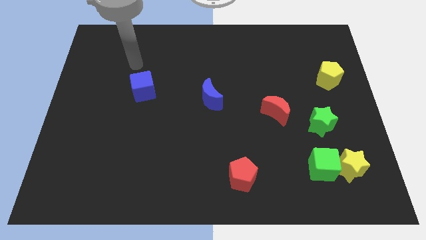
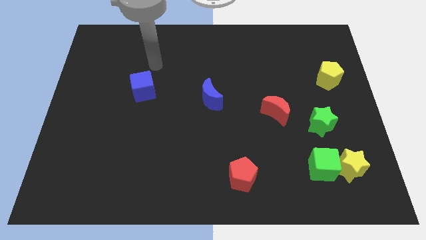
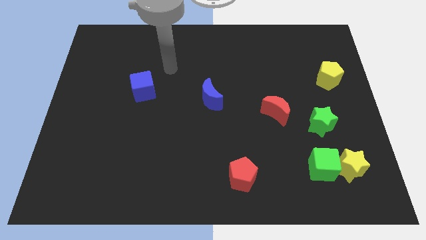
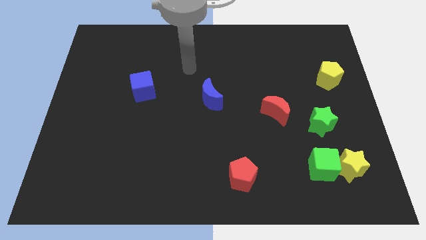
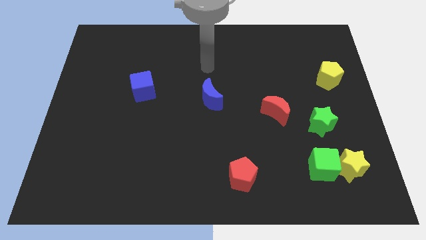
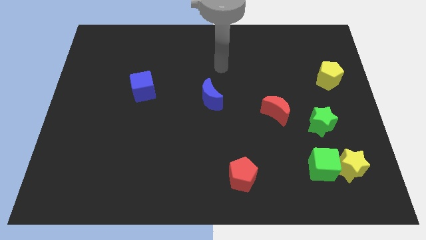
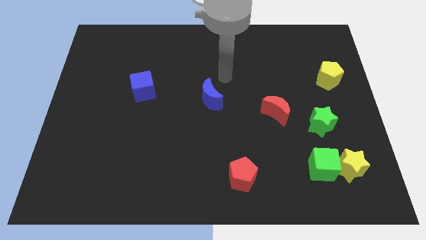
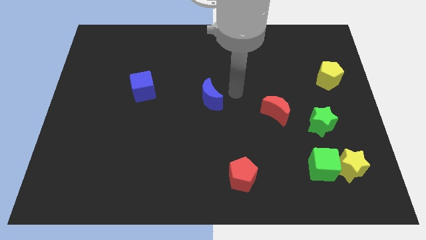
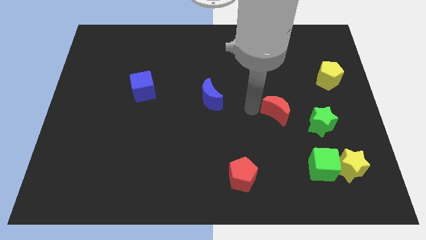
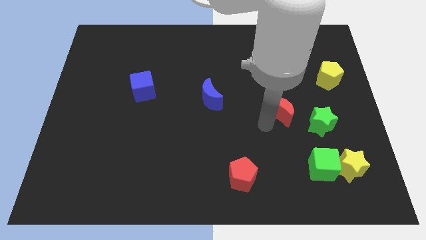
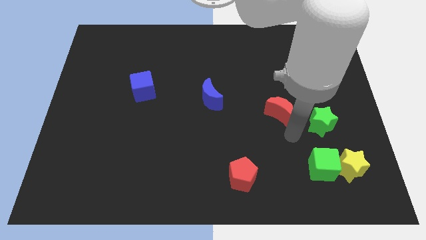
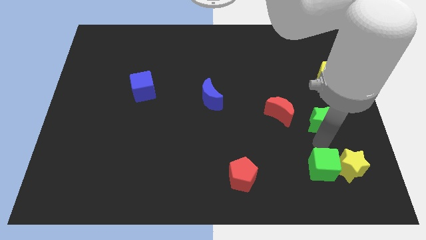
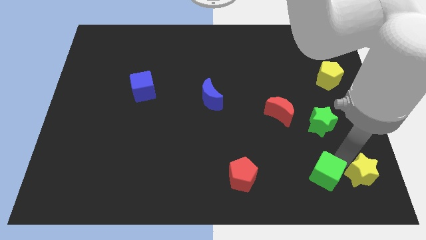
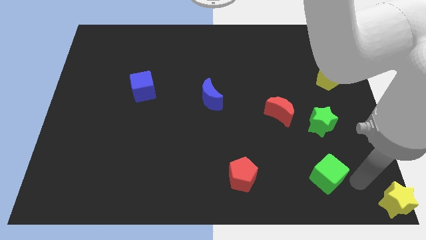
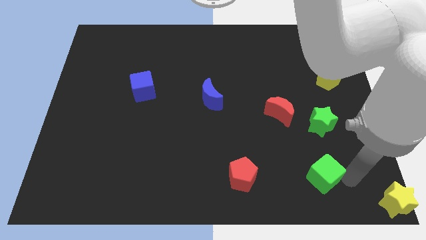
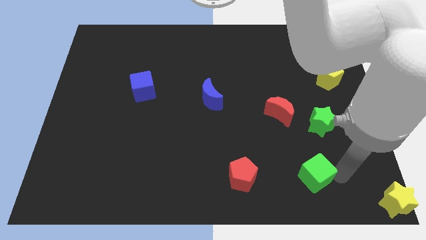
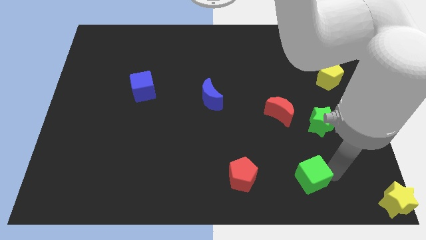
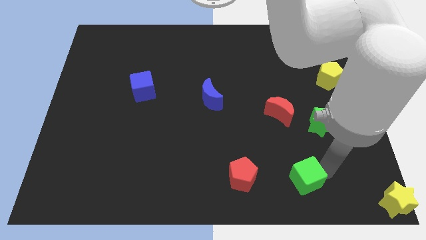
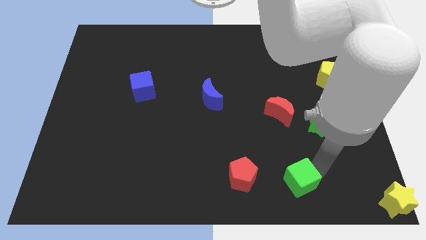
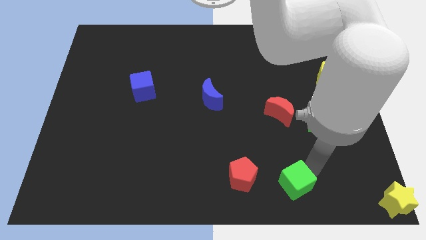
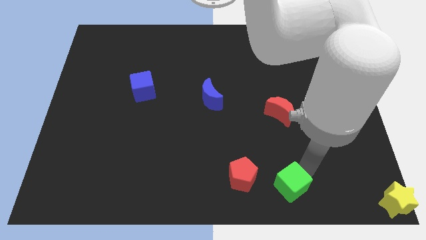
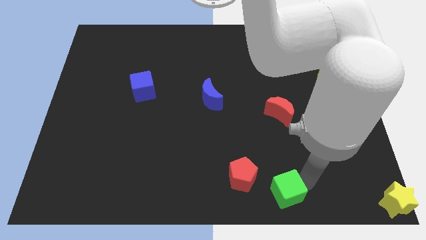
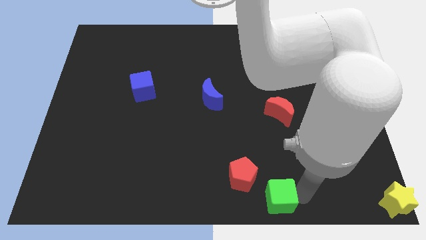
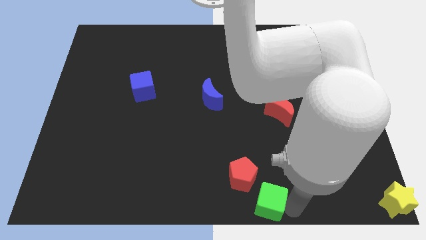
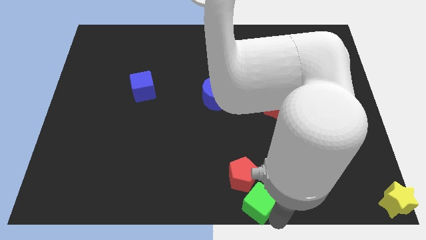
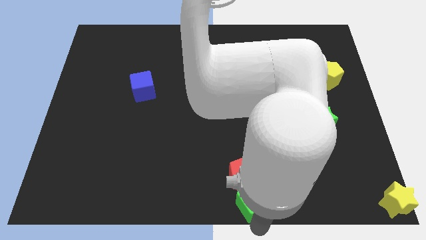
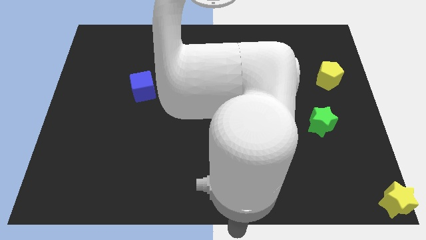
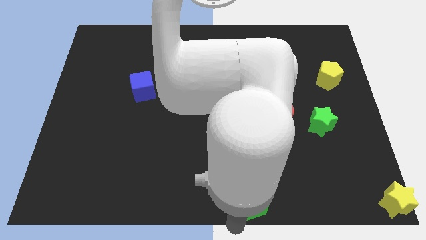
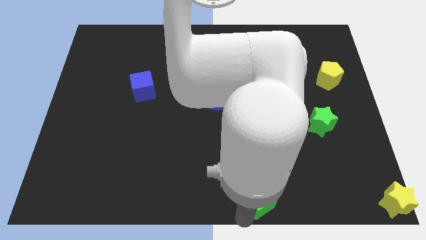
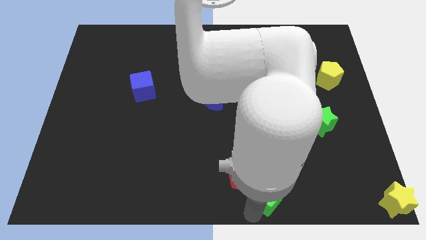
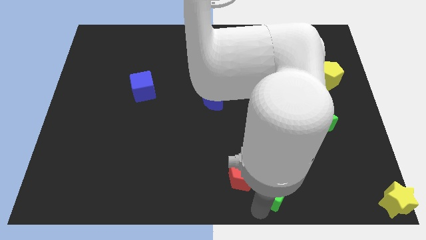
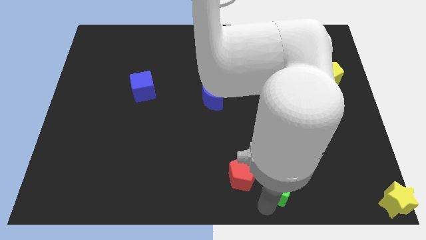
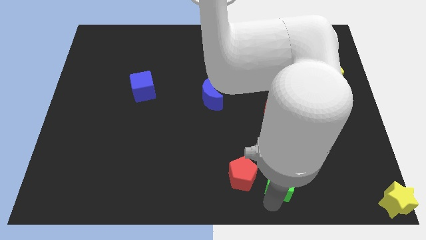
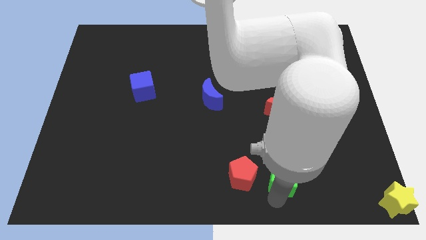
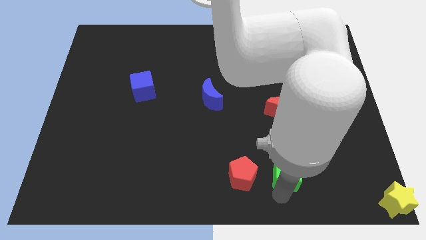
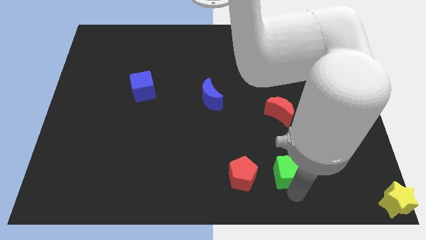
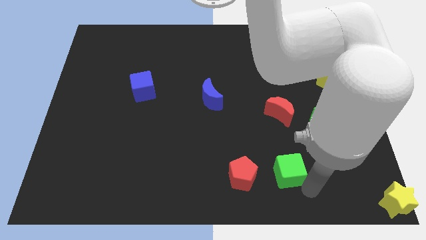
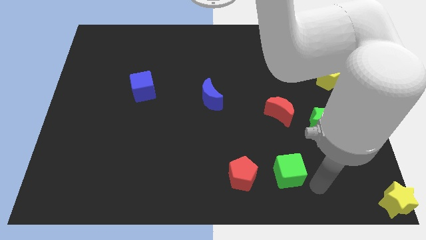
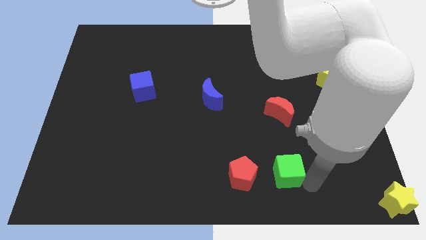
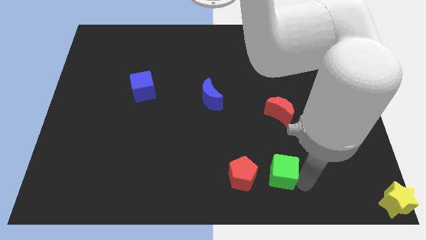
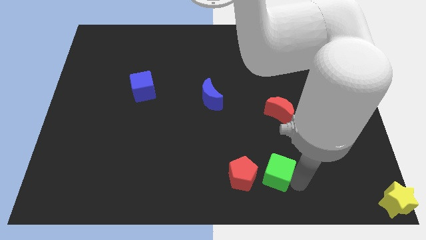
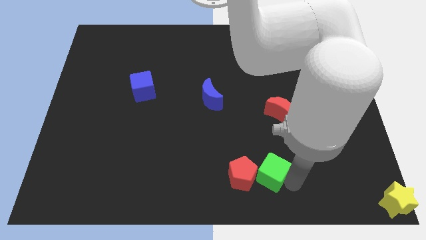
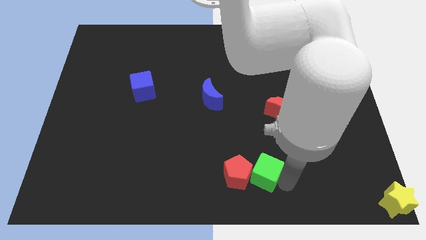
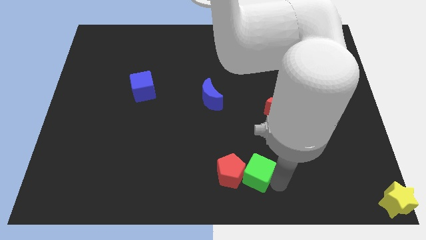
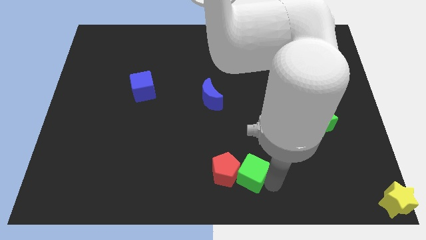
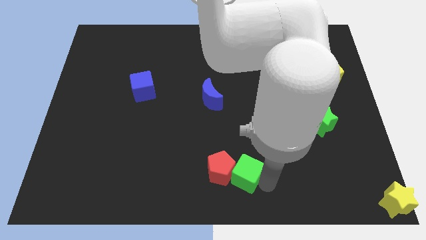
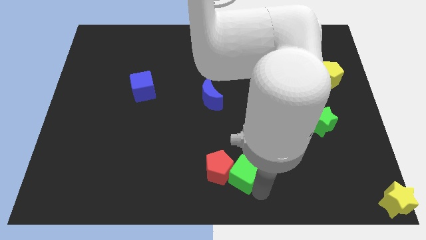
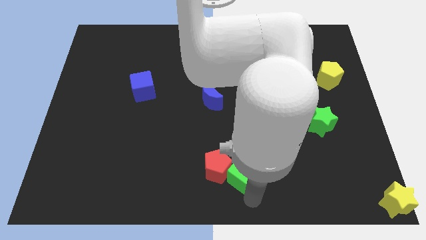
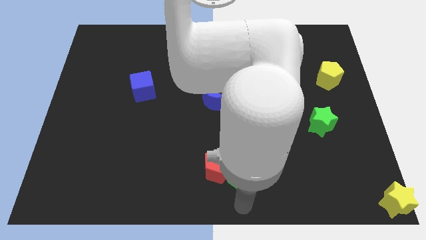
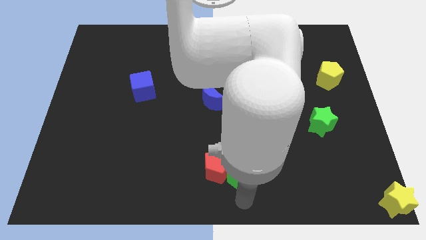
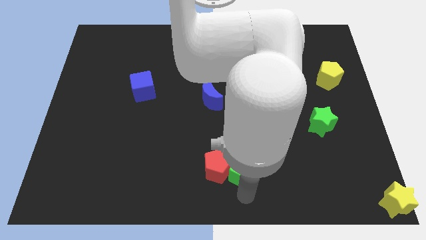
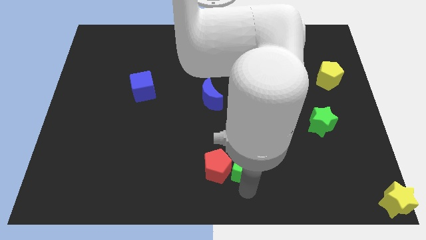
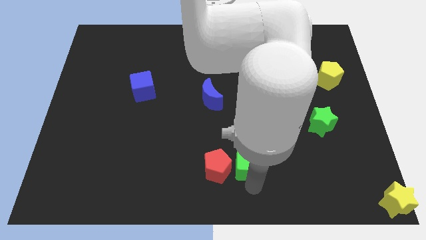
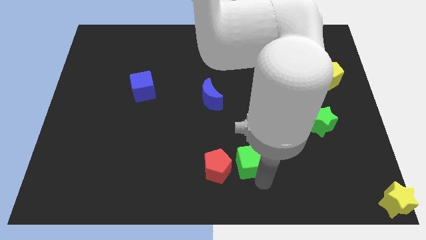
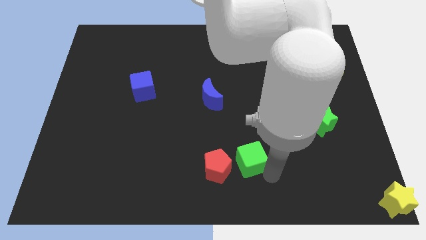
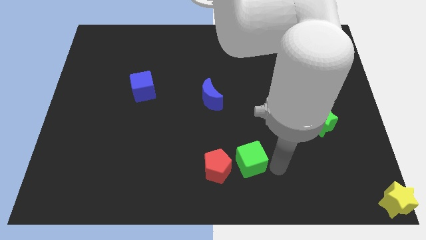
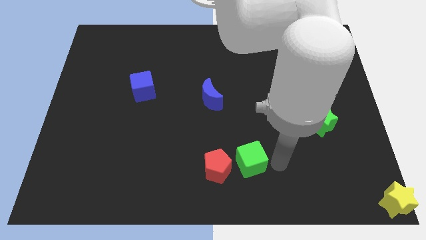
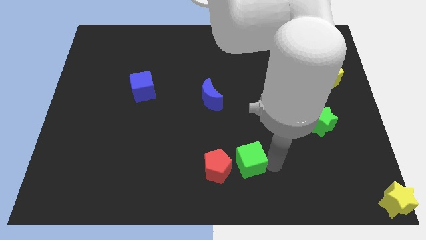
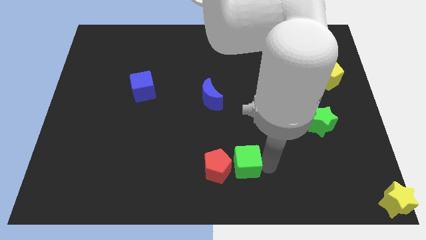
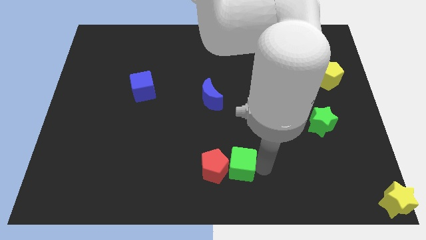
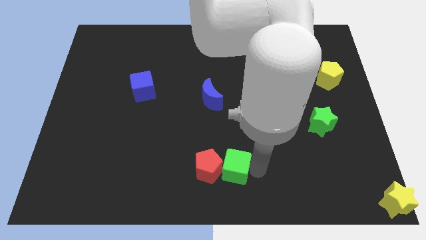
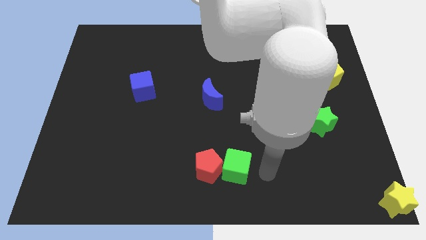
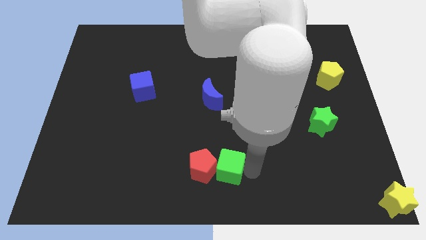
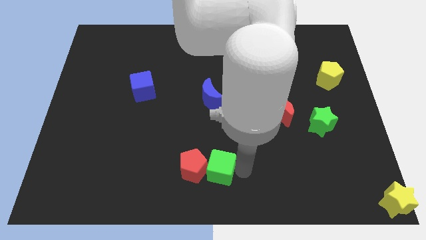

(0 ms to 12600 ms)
push the green cube to the left

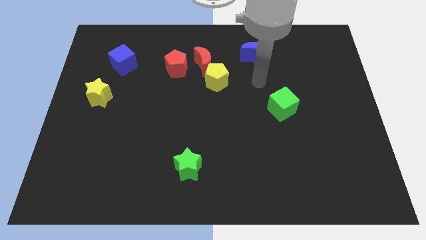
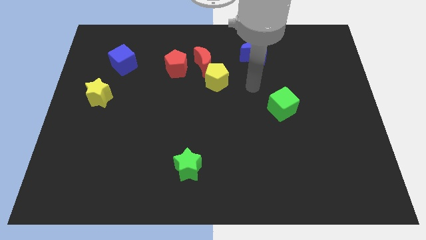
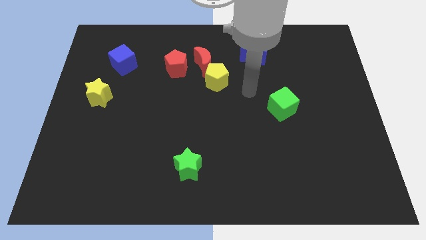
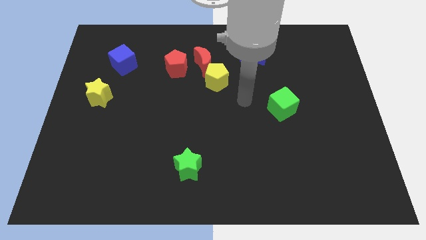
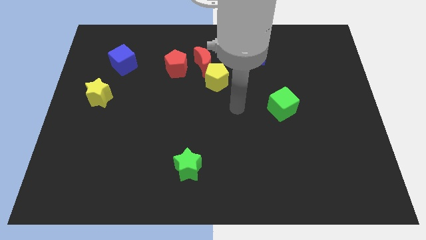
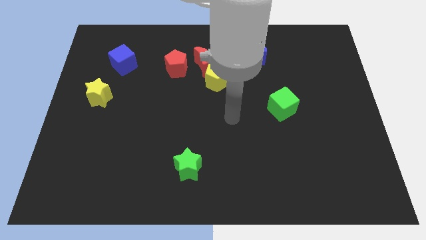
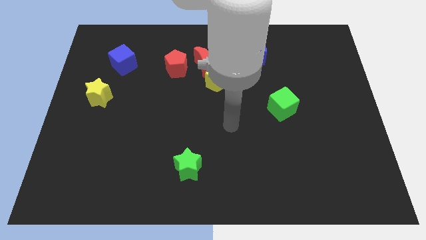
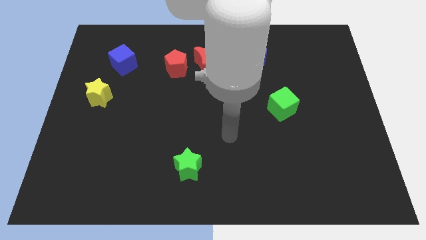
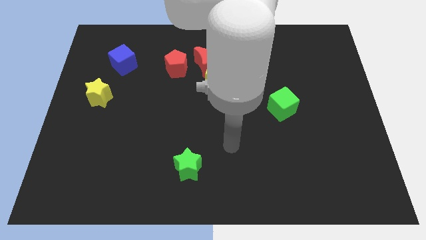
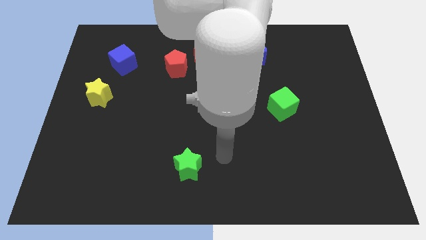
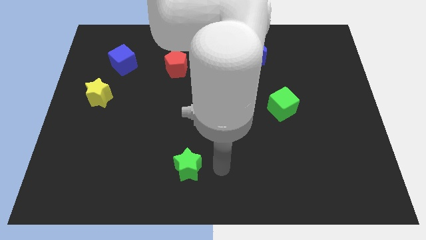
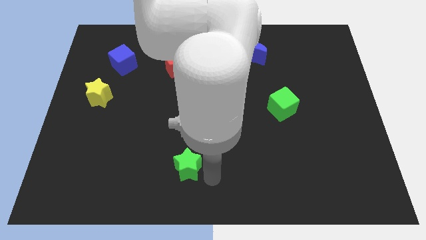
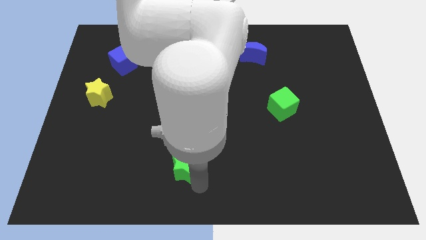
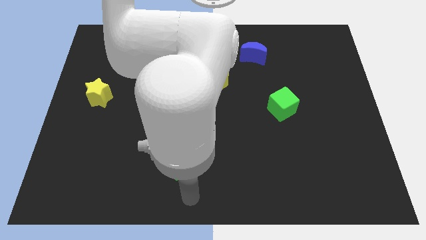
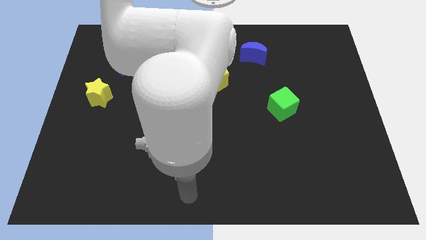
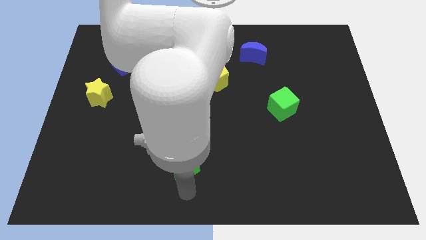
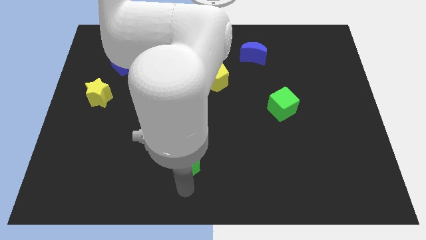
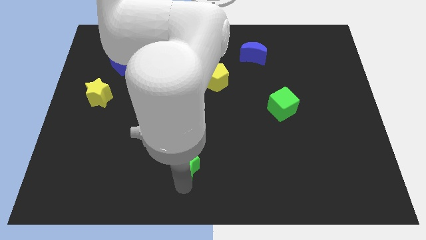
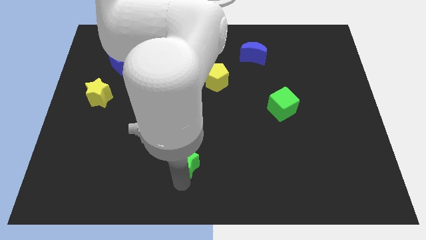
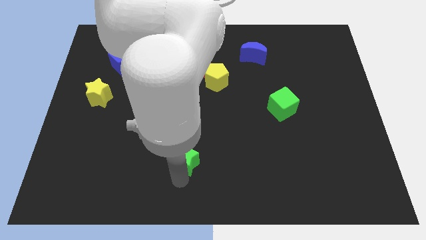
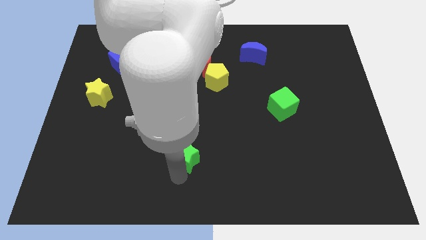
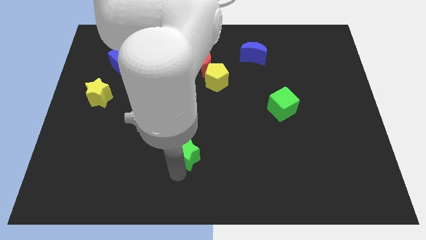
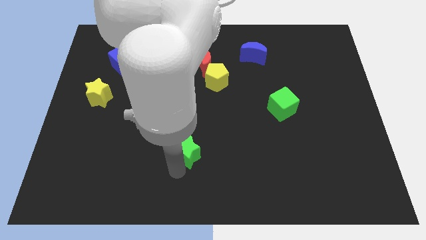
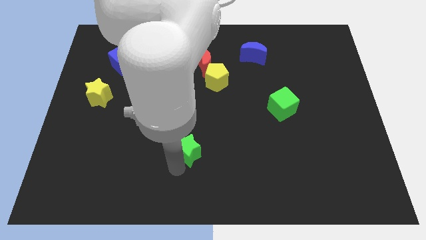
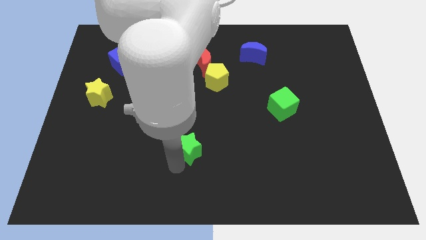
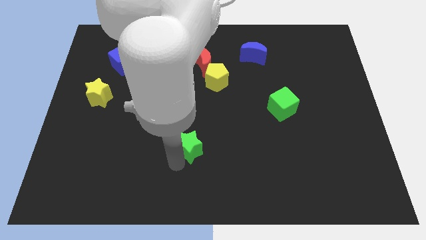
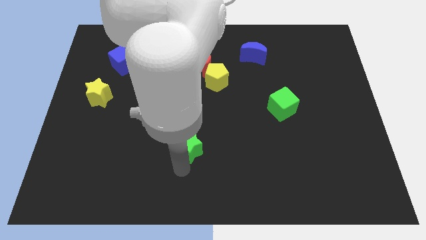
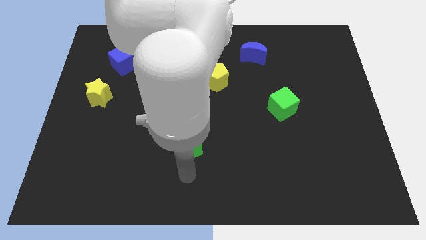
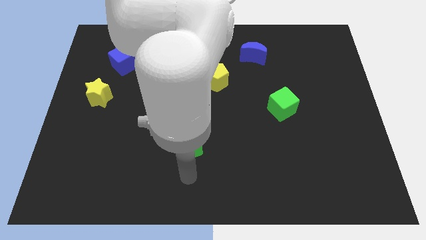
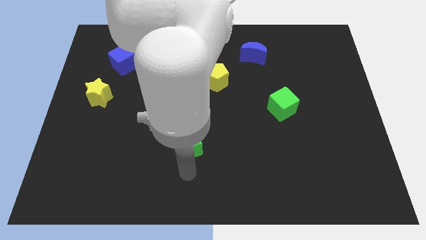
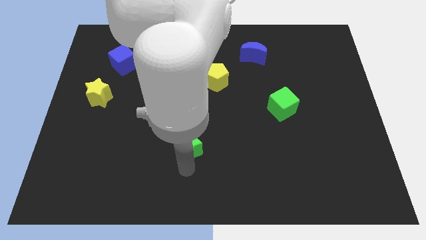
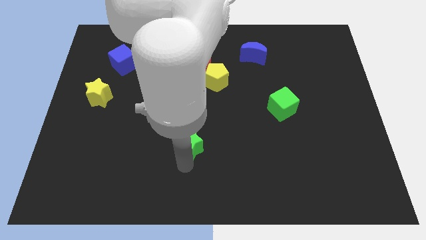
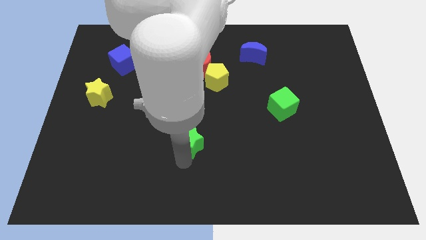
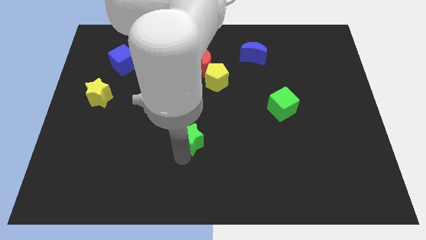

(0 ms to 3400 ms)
push the green star a bit upwards
